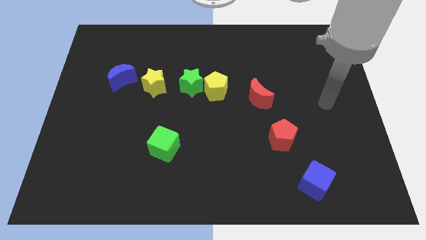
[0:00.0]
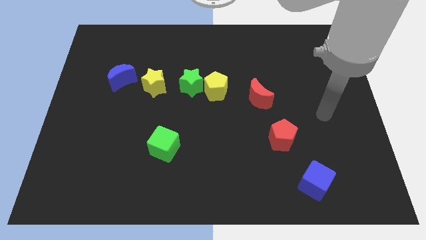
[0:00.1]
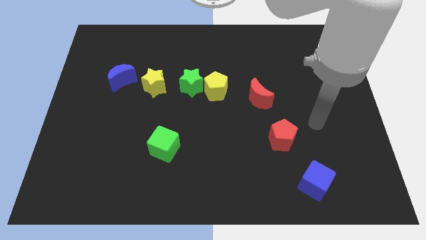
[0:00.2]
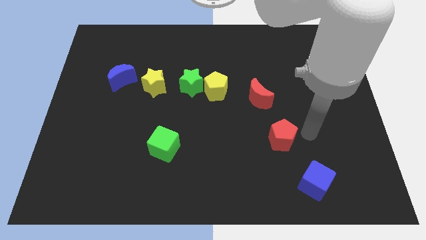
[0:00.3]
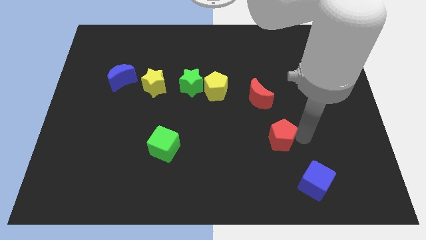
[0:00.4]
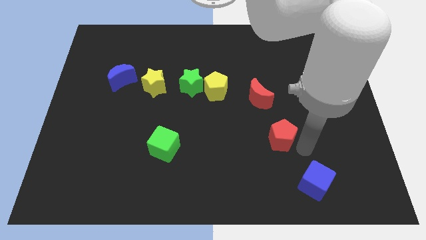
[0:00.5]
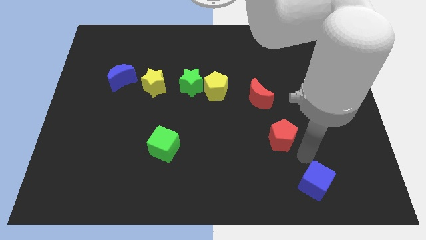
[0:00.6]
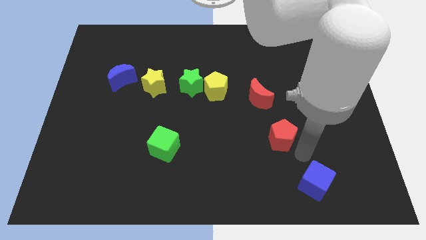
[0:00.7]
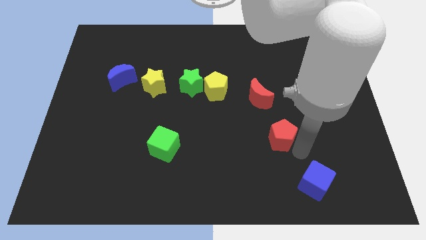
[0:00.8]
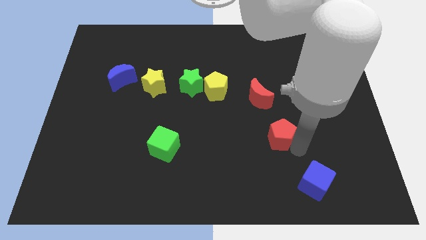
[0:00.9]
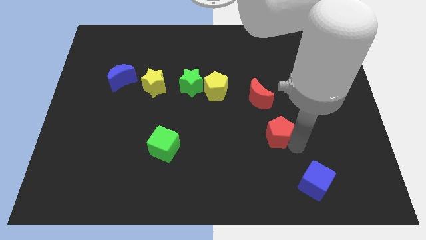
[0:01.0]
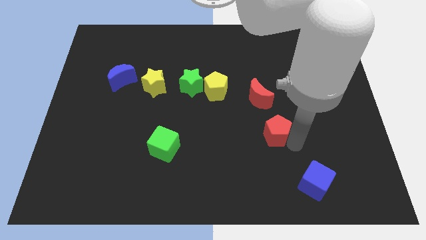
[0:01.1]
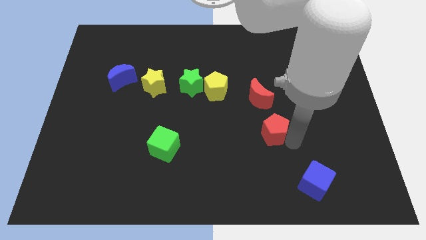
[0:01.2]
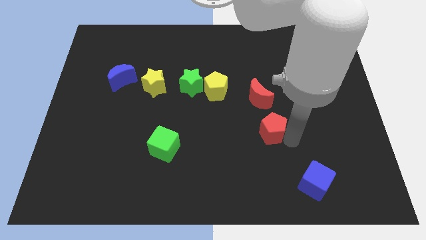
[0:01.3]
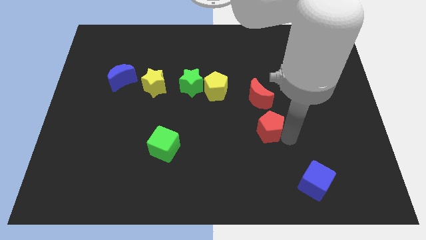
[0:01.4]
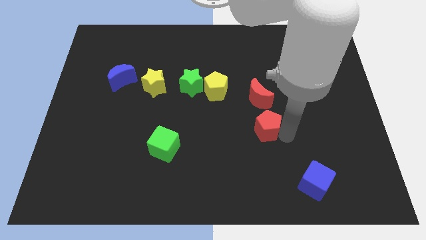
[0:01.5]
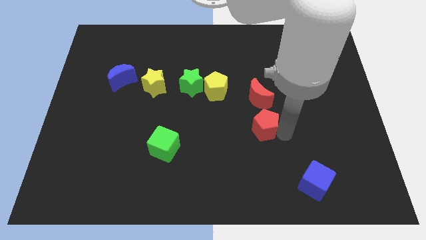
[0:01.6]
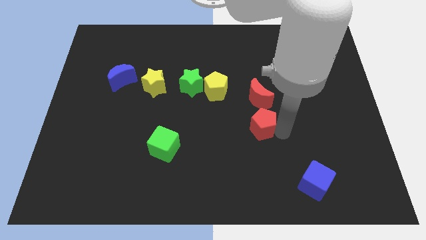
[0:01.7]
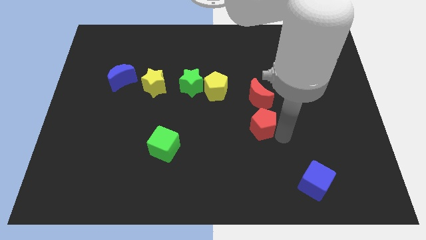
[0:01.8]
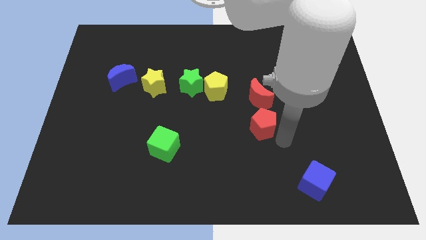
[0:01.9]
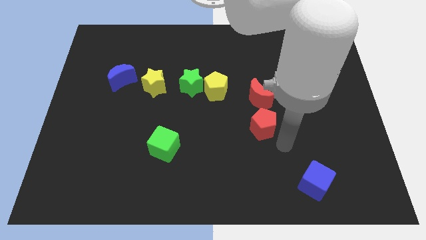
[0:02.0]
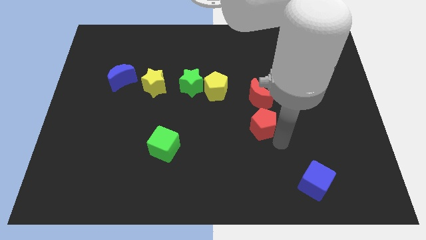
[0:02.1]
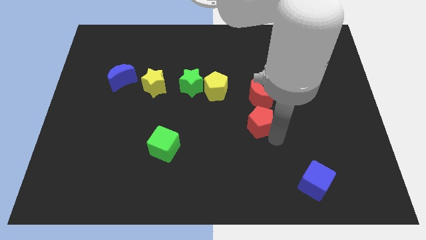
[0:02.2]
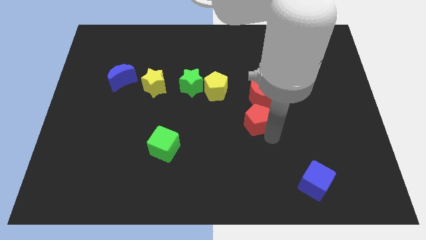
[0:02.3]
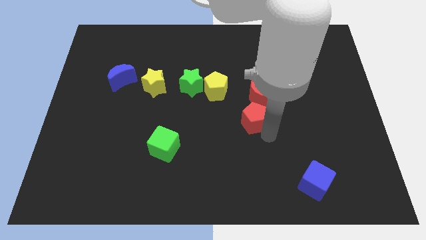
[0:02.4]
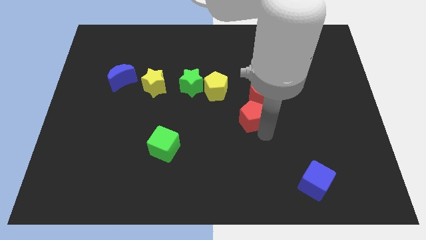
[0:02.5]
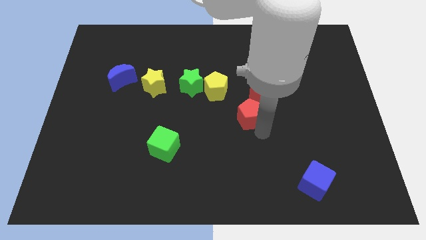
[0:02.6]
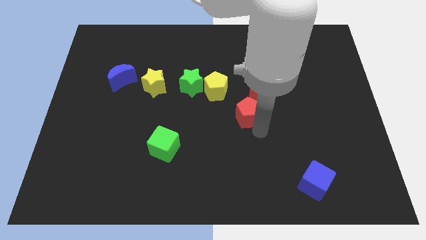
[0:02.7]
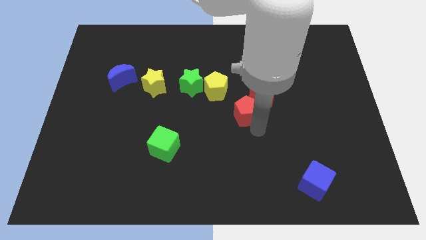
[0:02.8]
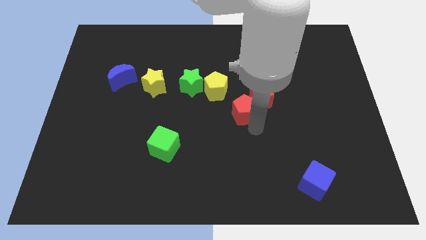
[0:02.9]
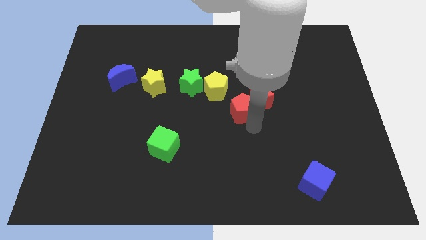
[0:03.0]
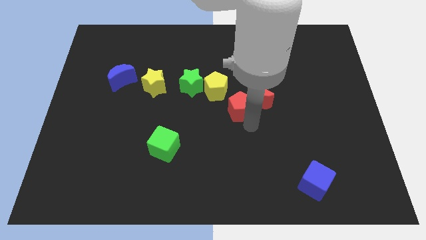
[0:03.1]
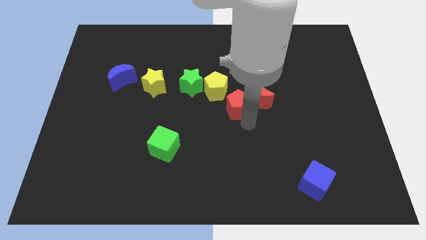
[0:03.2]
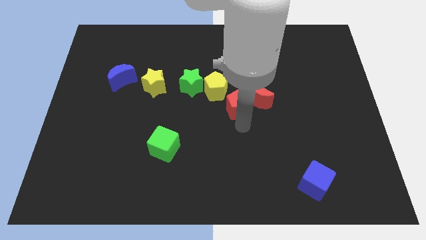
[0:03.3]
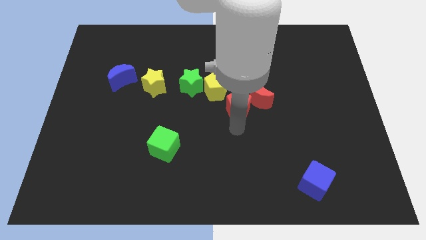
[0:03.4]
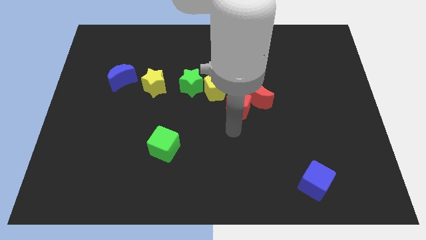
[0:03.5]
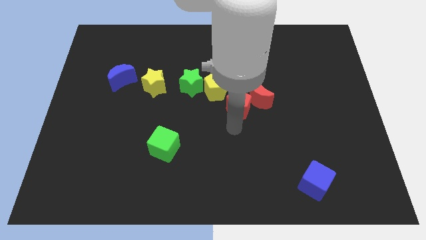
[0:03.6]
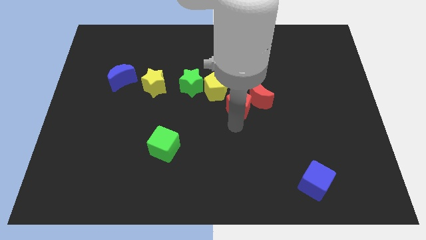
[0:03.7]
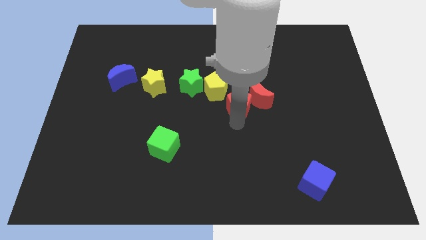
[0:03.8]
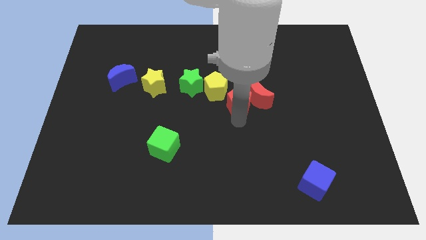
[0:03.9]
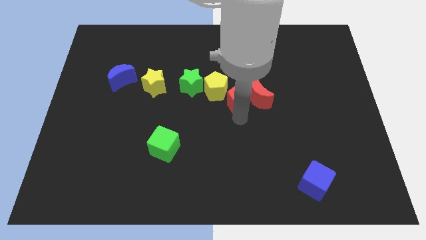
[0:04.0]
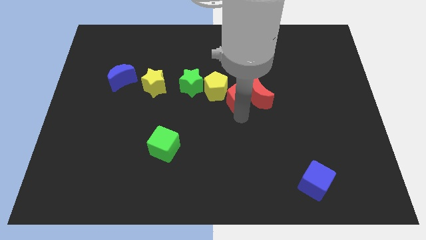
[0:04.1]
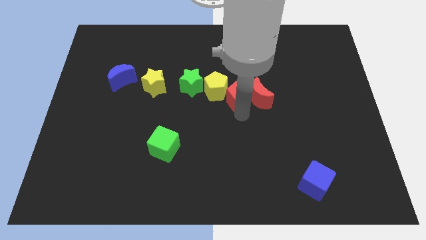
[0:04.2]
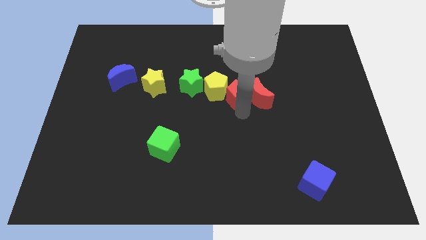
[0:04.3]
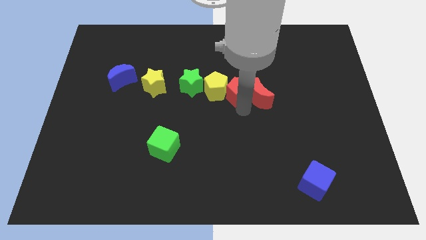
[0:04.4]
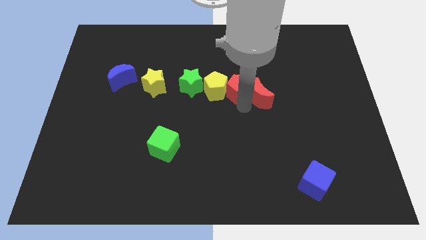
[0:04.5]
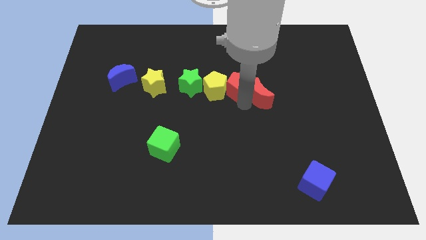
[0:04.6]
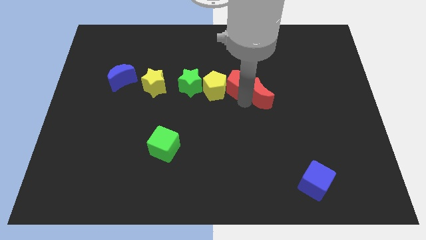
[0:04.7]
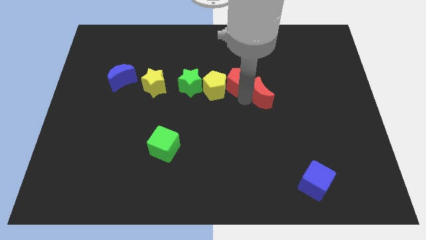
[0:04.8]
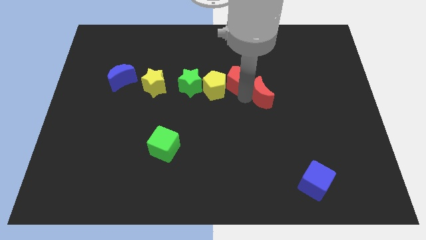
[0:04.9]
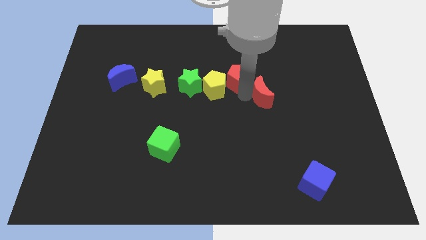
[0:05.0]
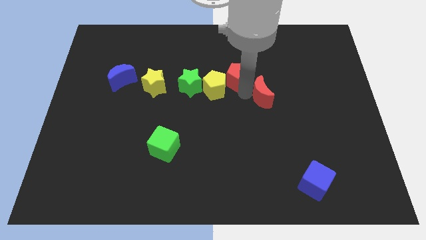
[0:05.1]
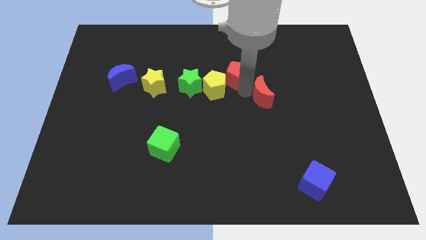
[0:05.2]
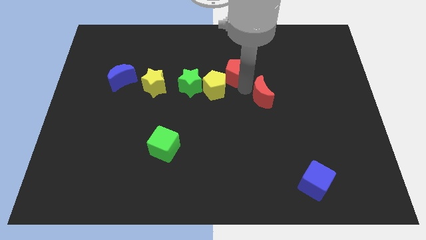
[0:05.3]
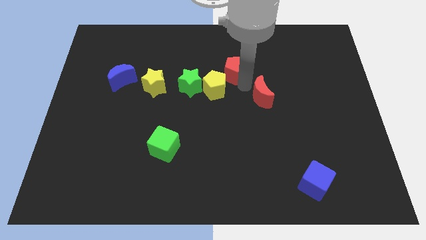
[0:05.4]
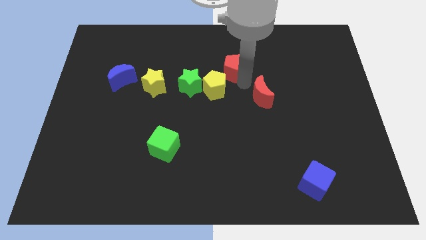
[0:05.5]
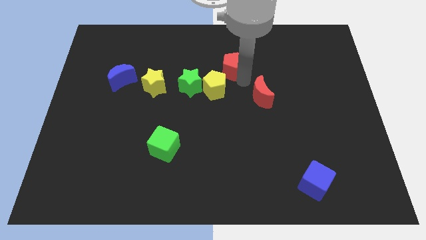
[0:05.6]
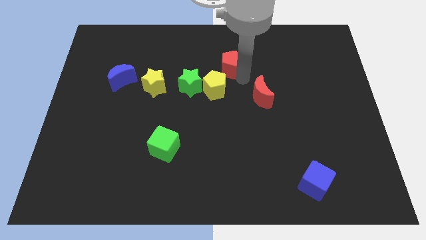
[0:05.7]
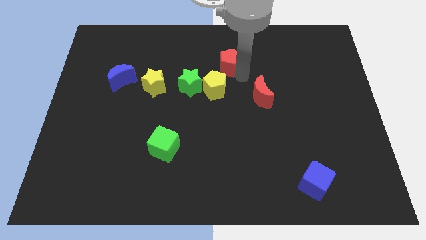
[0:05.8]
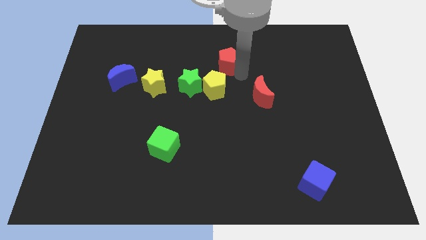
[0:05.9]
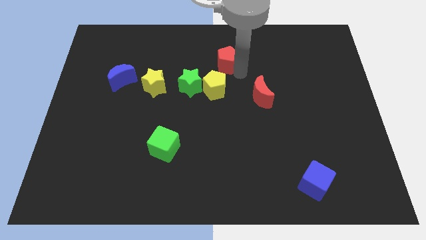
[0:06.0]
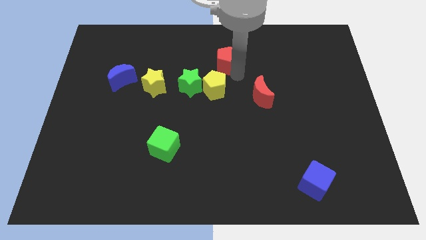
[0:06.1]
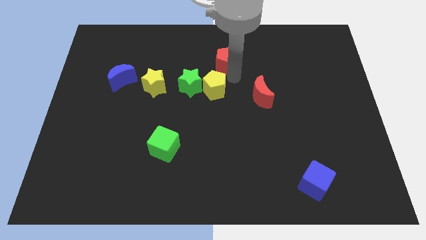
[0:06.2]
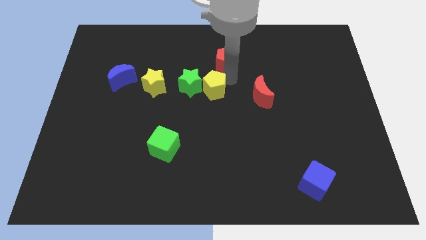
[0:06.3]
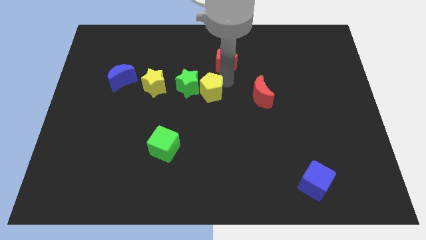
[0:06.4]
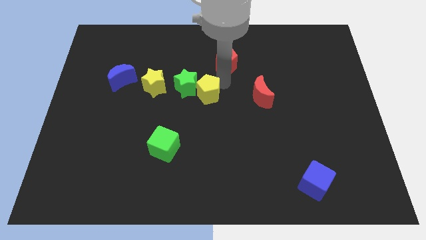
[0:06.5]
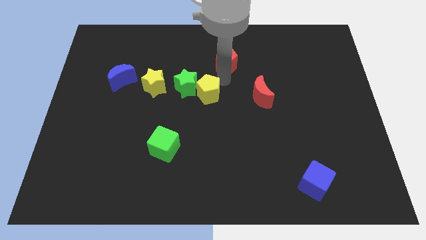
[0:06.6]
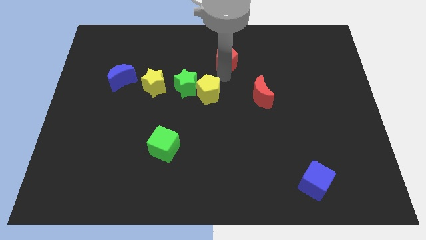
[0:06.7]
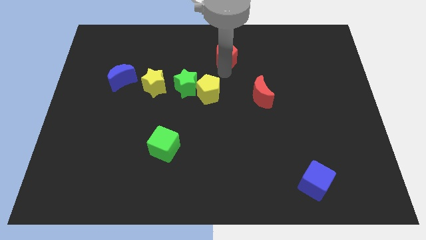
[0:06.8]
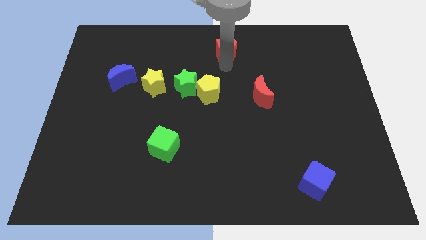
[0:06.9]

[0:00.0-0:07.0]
put the red pentagon to the towards your base

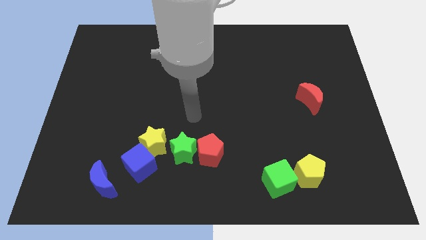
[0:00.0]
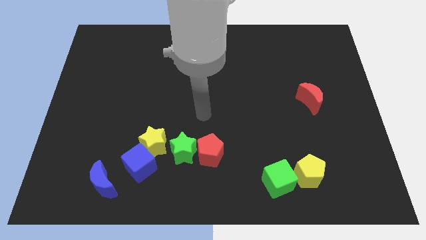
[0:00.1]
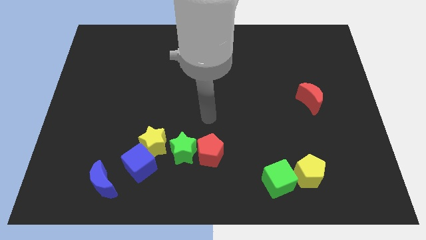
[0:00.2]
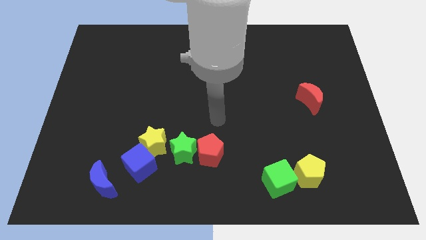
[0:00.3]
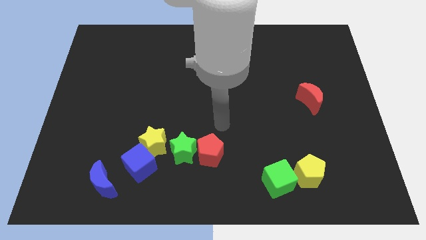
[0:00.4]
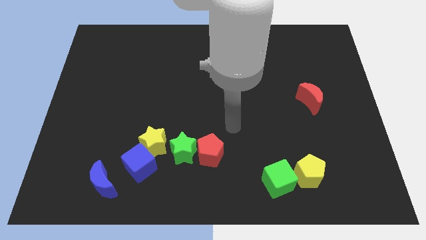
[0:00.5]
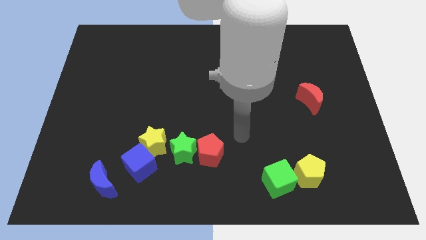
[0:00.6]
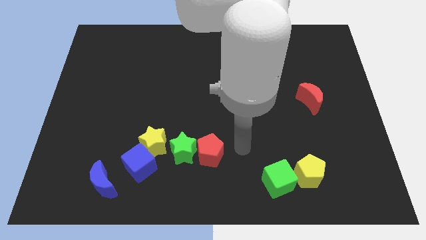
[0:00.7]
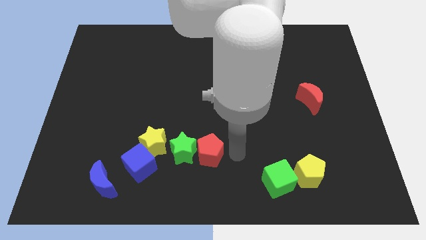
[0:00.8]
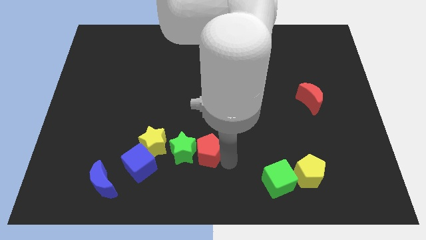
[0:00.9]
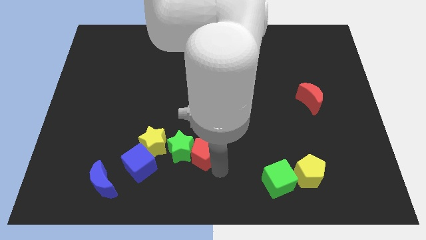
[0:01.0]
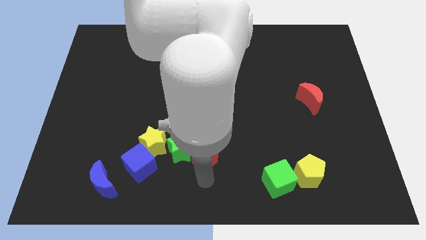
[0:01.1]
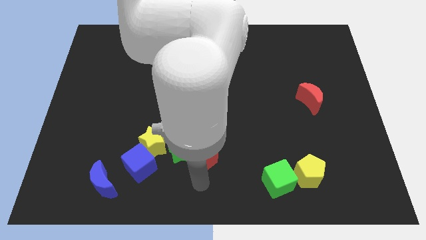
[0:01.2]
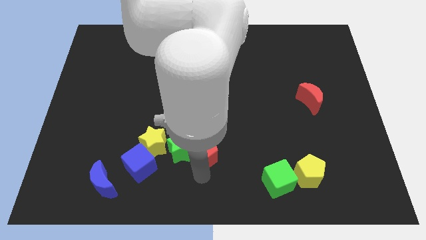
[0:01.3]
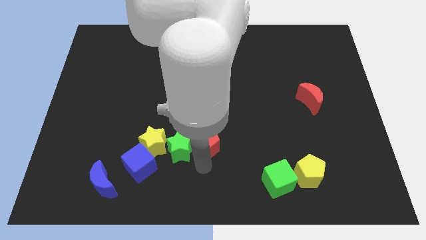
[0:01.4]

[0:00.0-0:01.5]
slide the red pentagon to the center of the board
